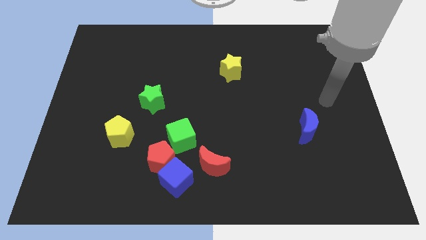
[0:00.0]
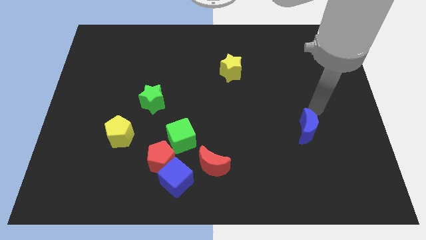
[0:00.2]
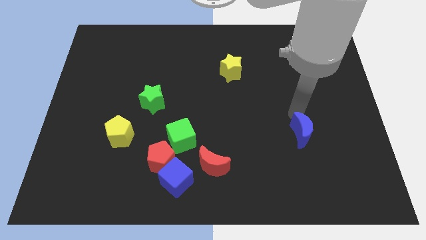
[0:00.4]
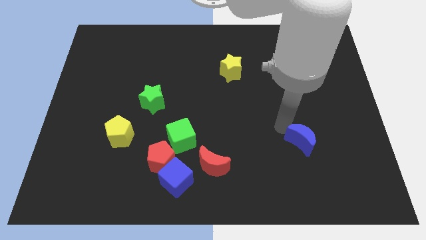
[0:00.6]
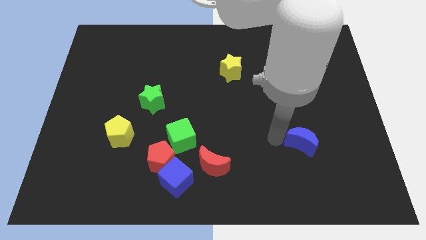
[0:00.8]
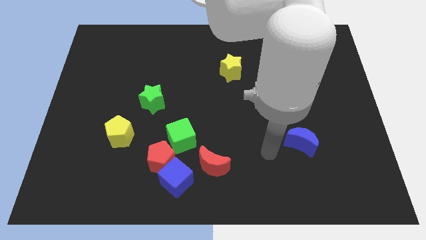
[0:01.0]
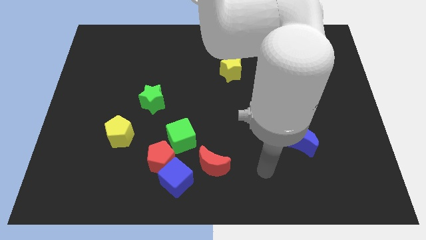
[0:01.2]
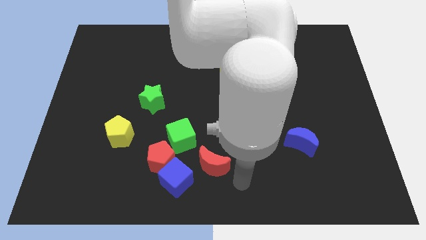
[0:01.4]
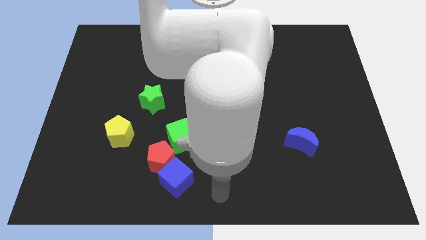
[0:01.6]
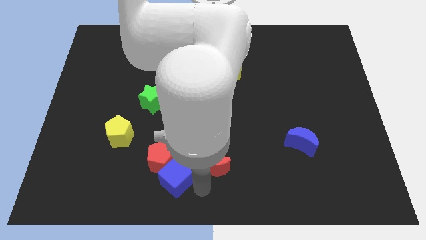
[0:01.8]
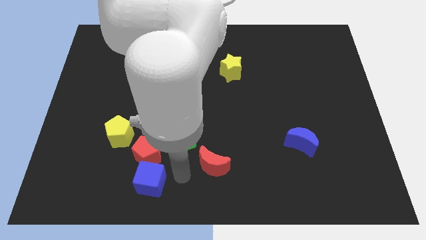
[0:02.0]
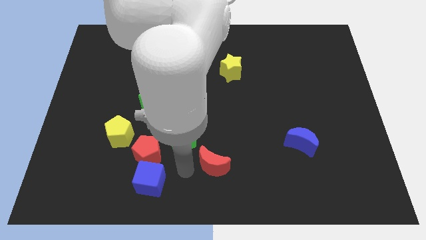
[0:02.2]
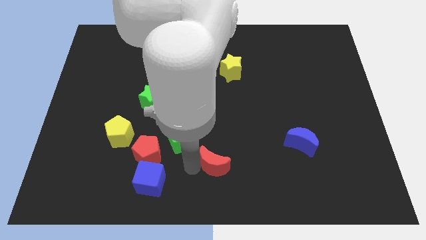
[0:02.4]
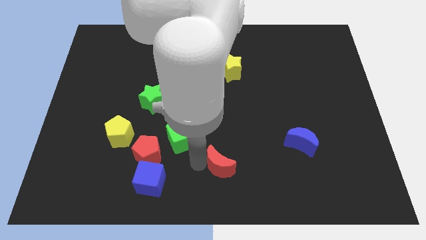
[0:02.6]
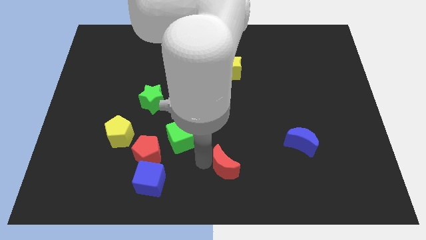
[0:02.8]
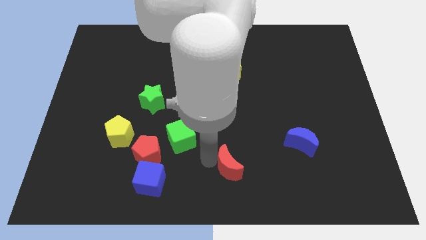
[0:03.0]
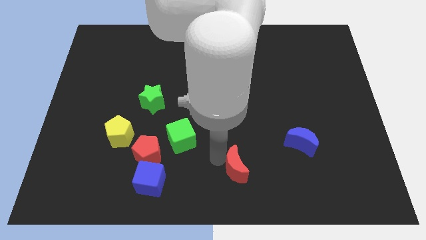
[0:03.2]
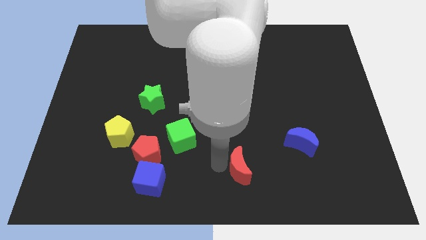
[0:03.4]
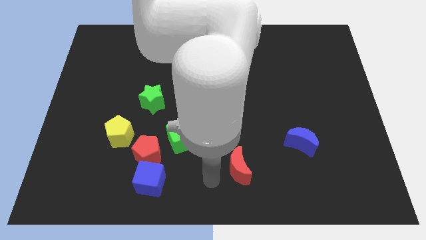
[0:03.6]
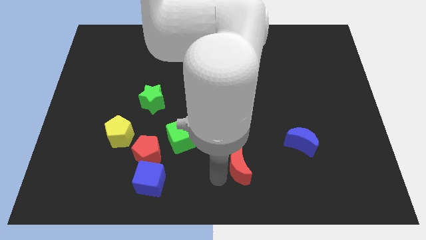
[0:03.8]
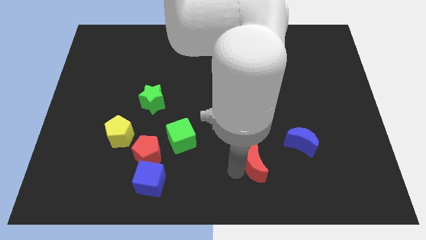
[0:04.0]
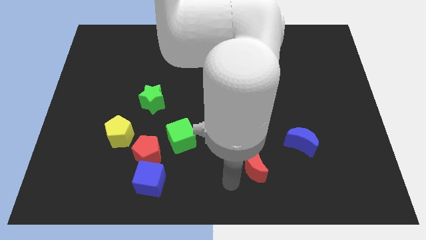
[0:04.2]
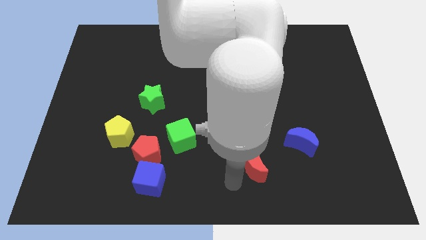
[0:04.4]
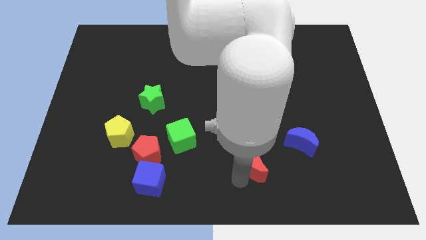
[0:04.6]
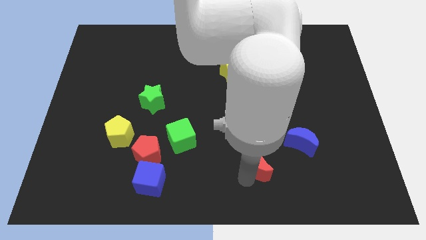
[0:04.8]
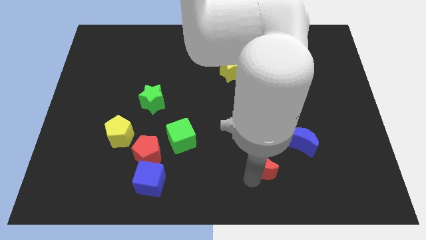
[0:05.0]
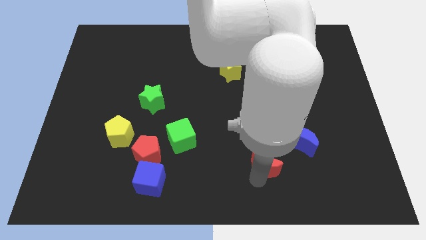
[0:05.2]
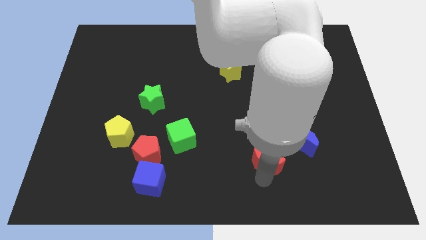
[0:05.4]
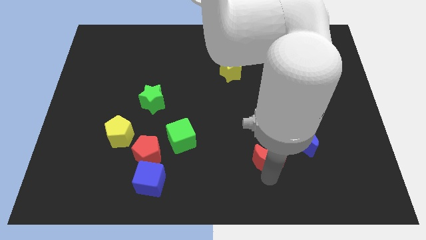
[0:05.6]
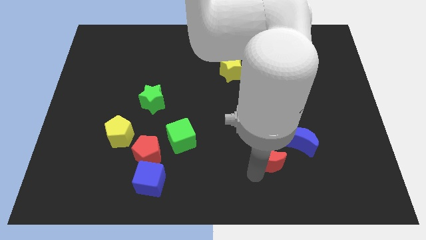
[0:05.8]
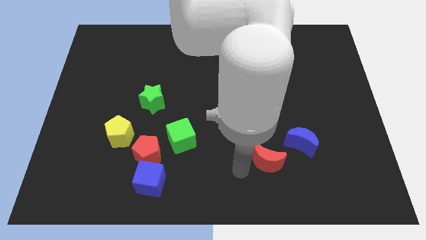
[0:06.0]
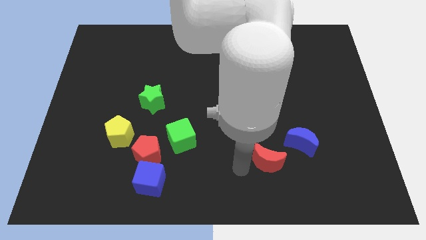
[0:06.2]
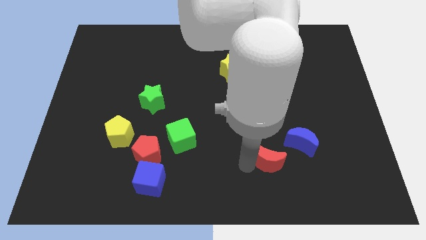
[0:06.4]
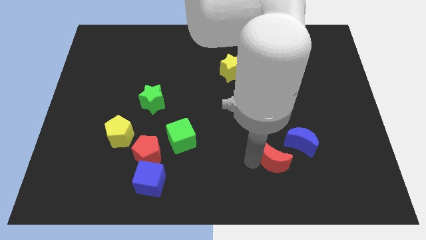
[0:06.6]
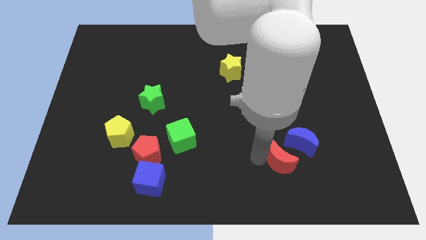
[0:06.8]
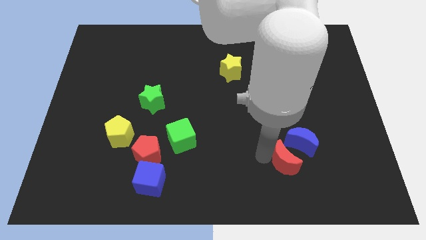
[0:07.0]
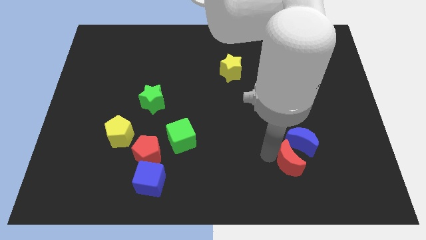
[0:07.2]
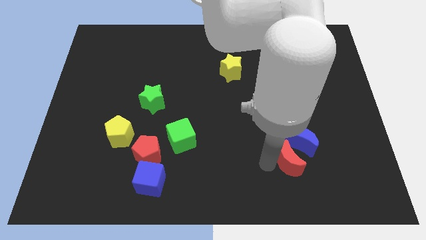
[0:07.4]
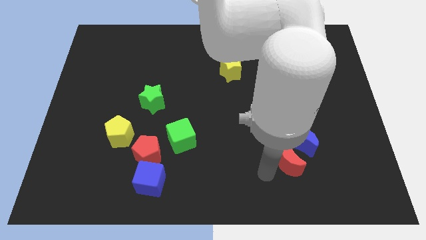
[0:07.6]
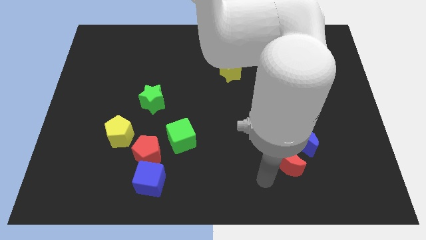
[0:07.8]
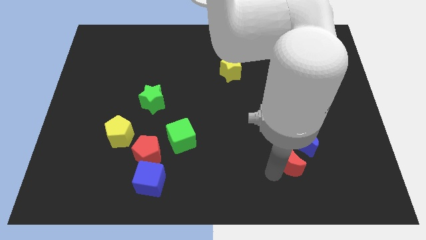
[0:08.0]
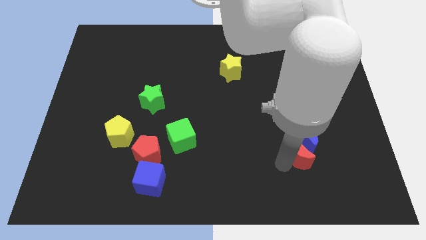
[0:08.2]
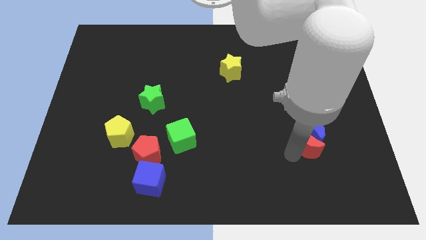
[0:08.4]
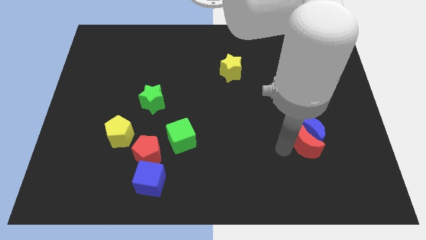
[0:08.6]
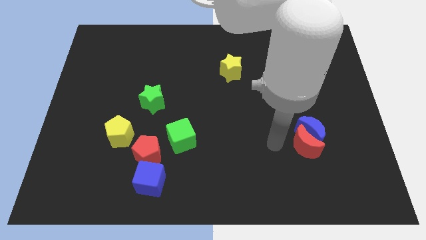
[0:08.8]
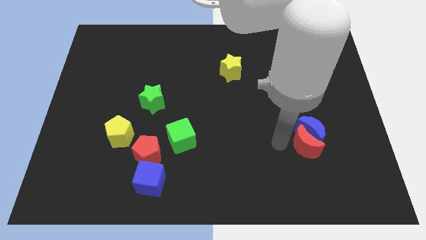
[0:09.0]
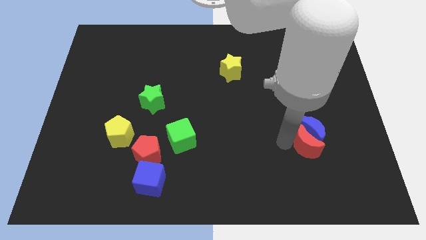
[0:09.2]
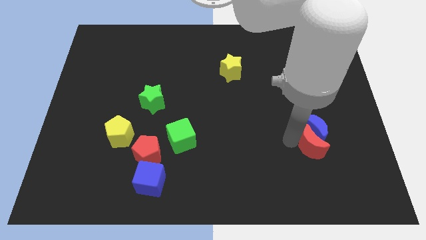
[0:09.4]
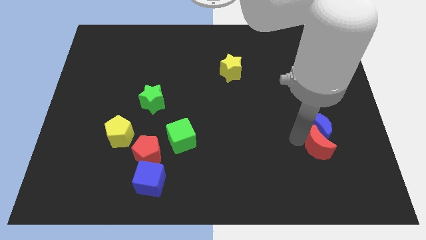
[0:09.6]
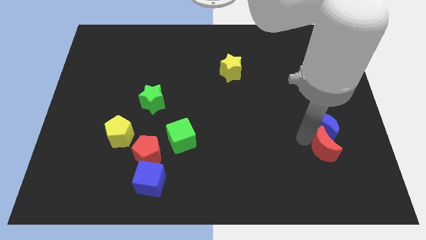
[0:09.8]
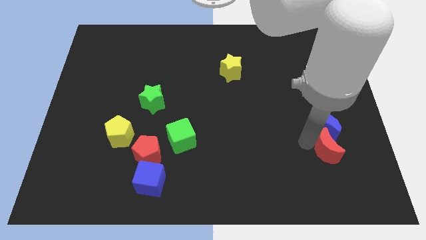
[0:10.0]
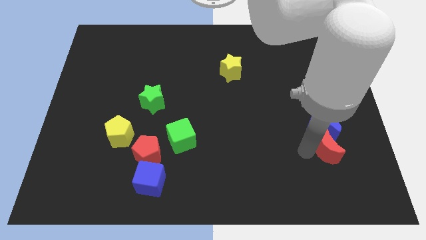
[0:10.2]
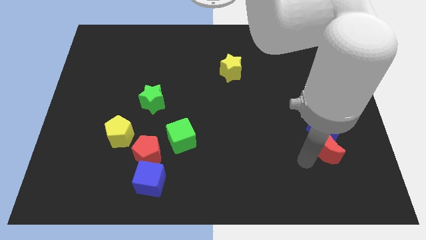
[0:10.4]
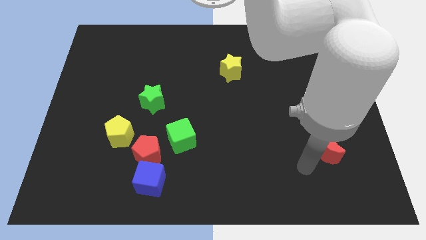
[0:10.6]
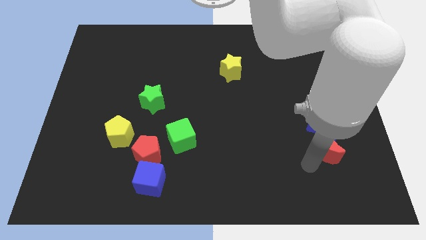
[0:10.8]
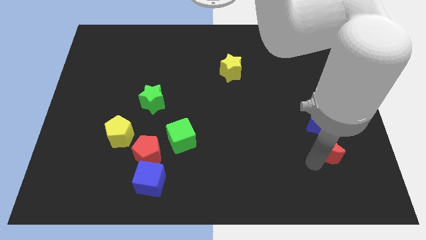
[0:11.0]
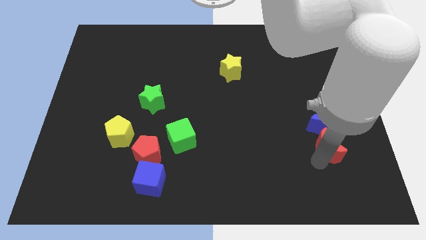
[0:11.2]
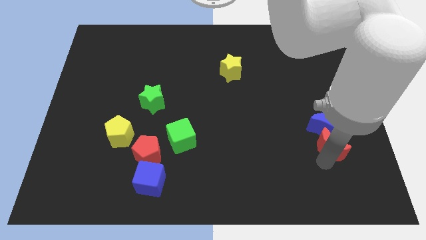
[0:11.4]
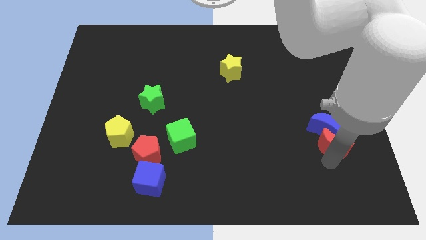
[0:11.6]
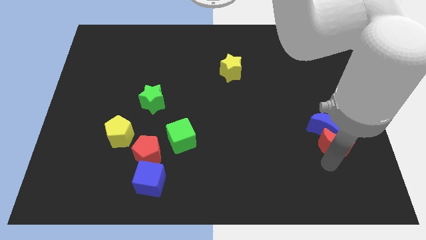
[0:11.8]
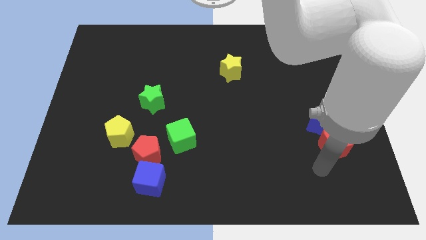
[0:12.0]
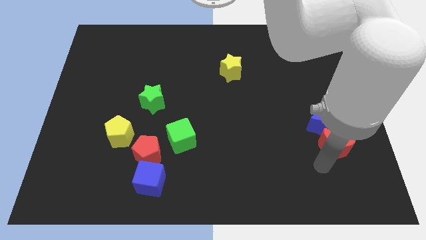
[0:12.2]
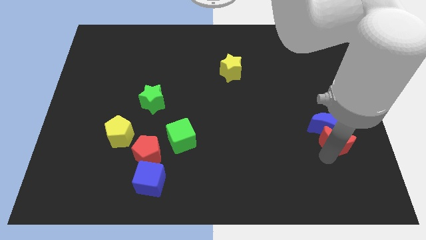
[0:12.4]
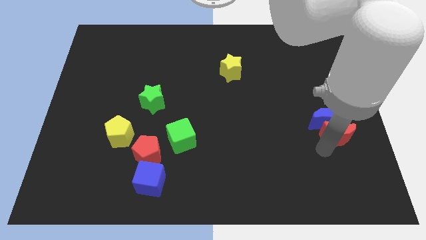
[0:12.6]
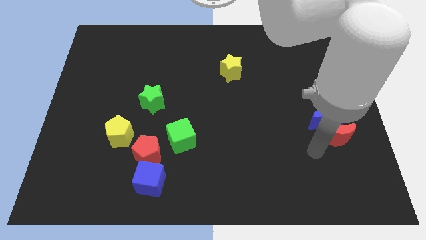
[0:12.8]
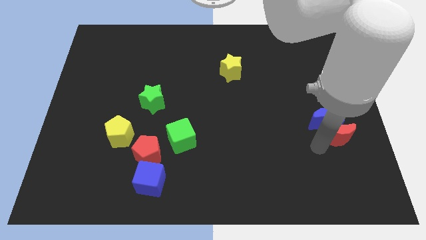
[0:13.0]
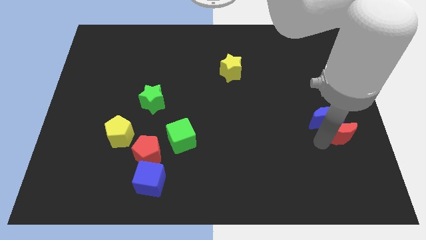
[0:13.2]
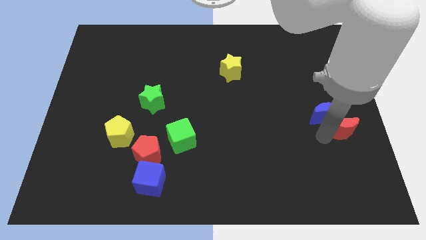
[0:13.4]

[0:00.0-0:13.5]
slide the red moon to the right side

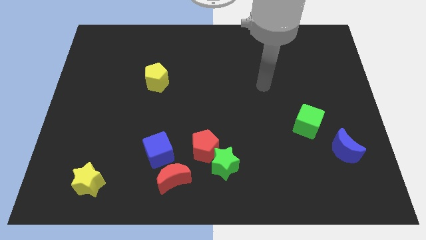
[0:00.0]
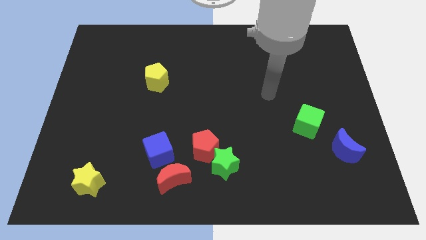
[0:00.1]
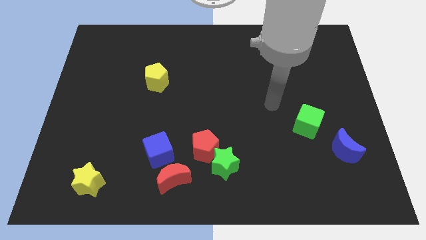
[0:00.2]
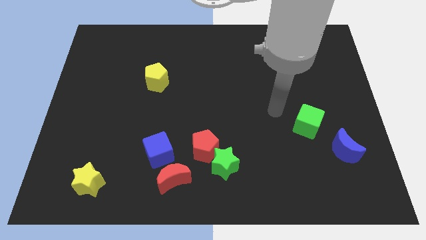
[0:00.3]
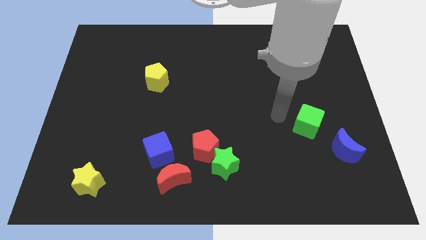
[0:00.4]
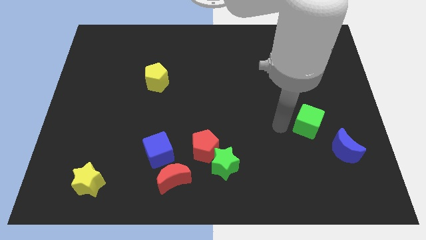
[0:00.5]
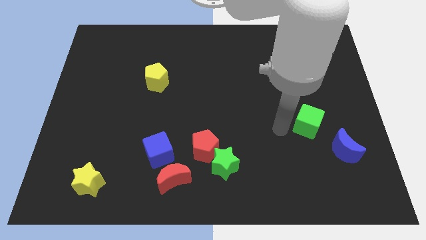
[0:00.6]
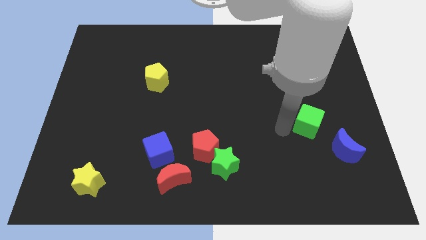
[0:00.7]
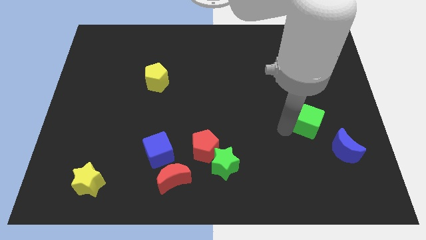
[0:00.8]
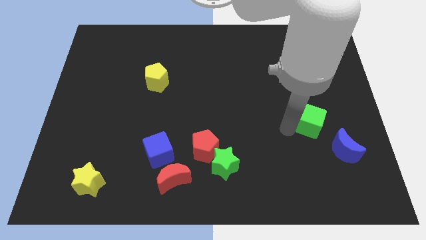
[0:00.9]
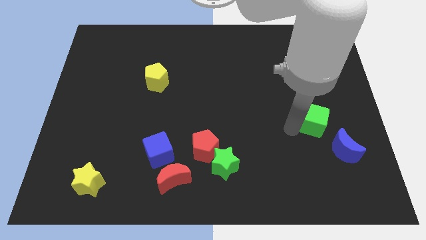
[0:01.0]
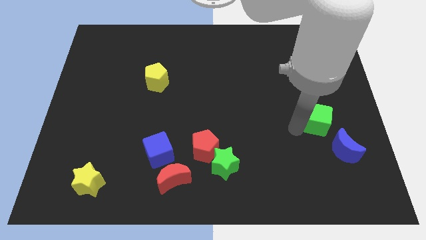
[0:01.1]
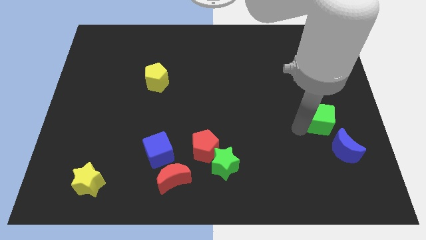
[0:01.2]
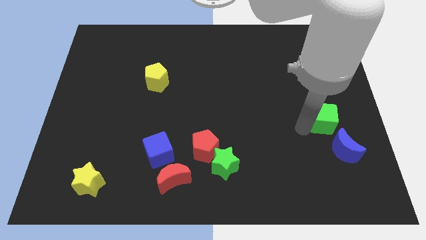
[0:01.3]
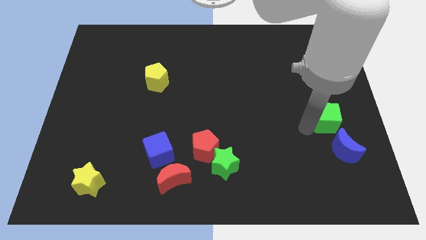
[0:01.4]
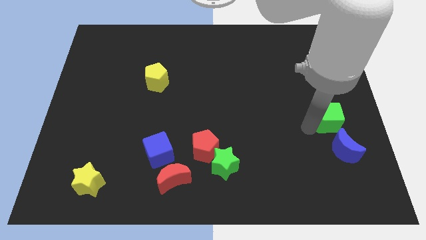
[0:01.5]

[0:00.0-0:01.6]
push the green cube to the right side
